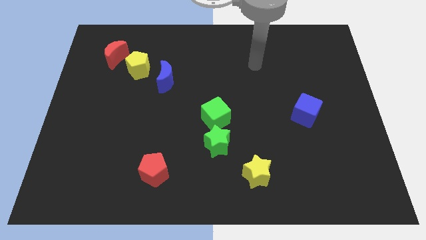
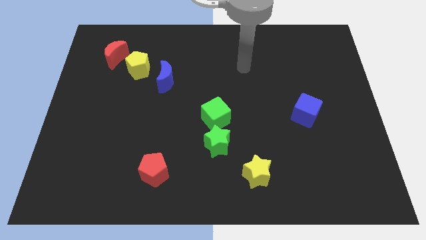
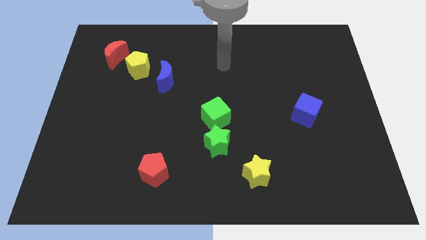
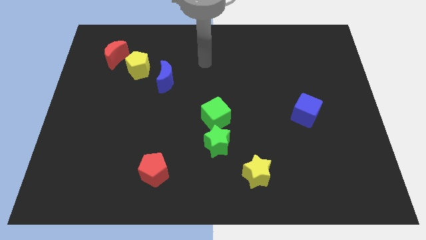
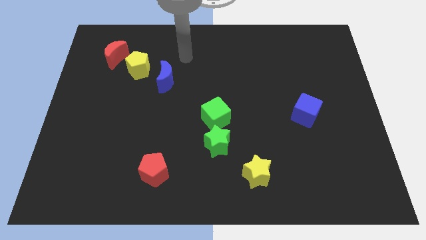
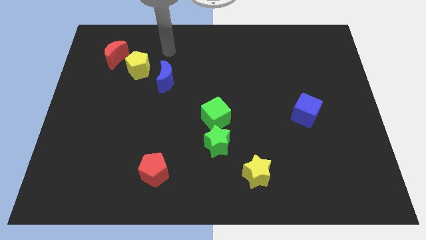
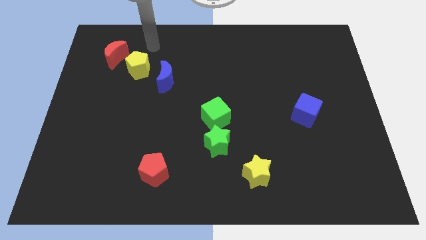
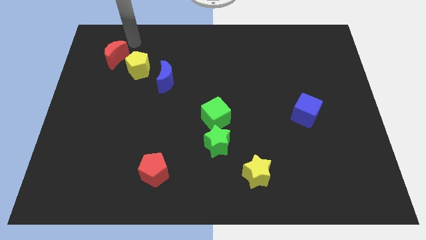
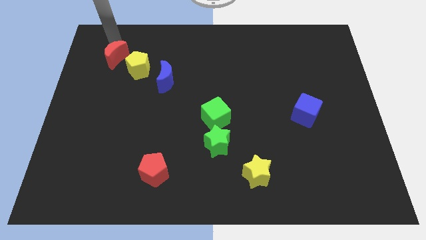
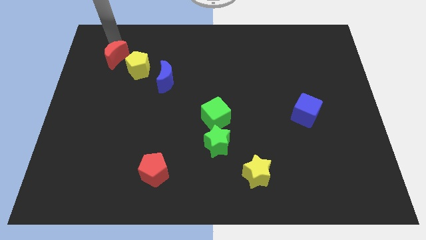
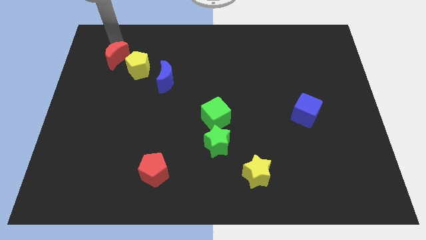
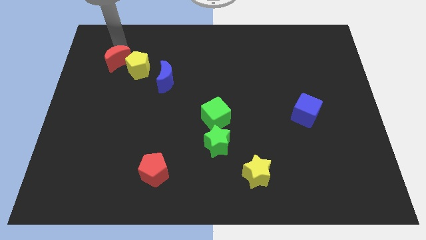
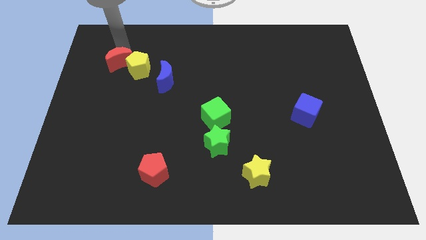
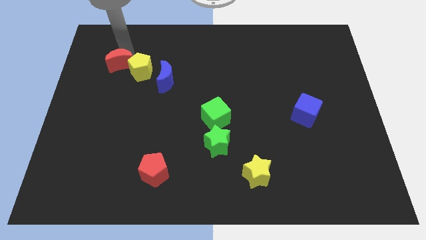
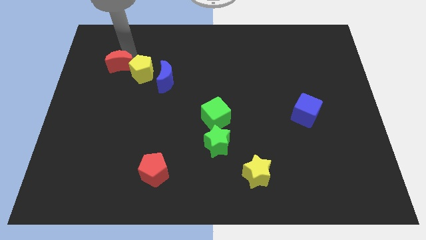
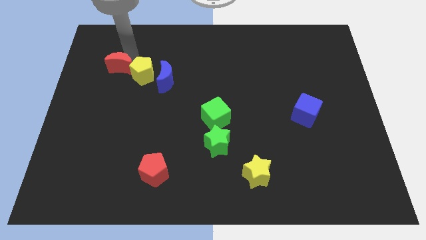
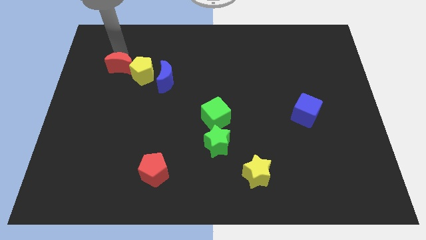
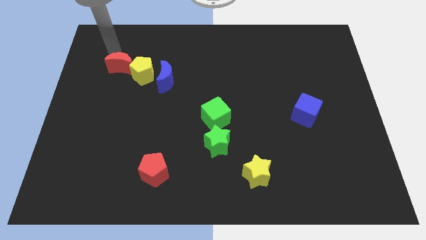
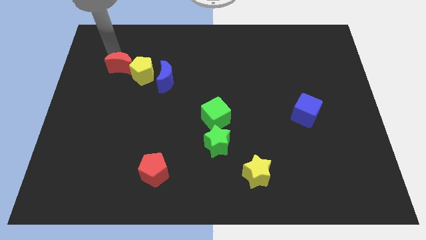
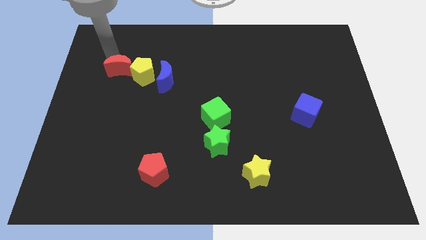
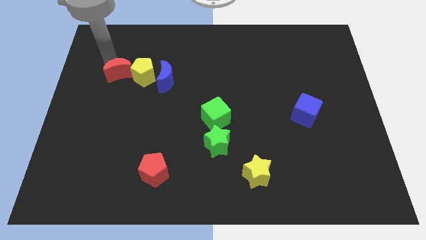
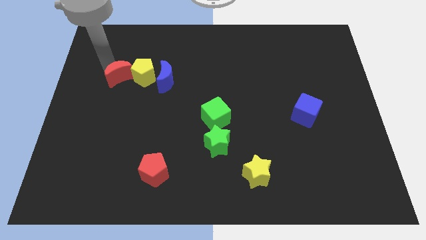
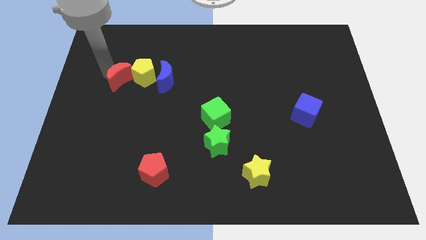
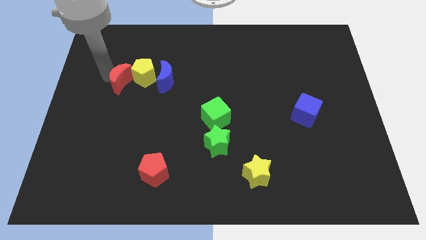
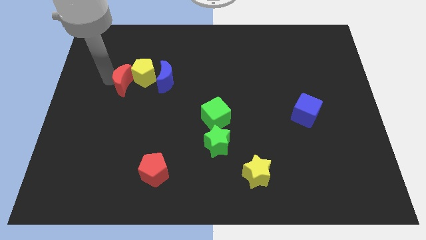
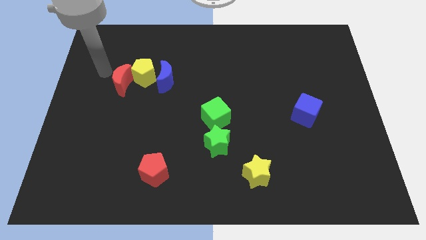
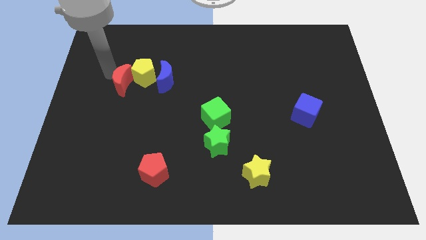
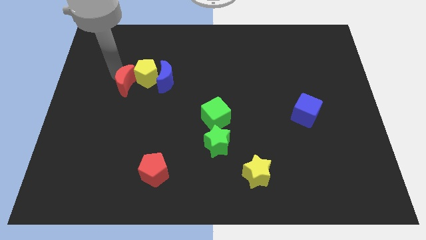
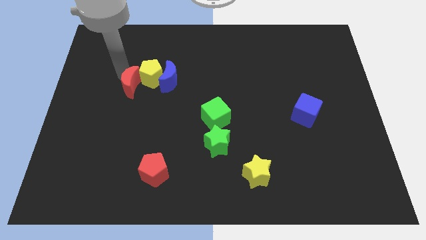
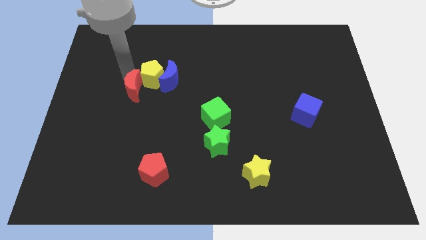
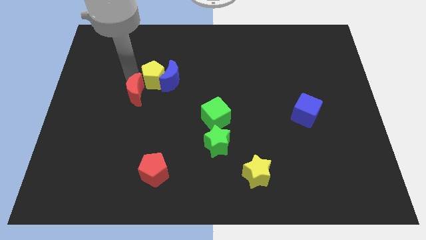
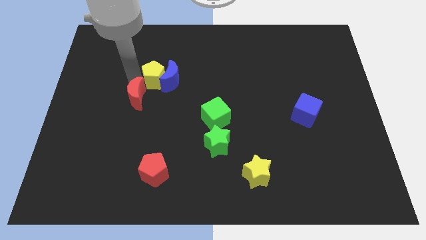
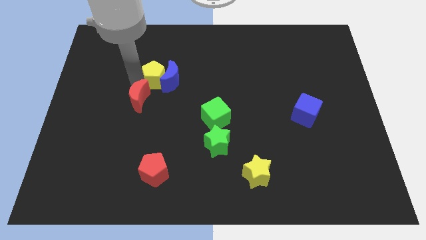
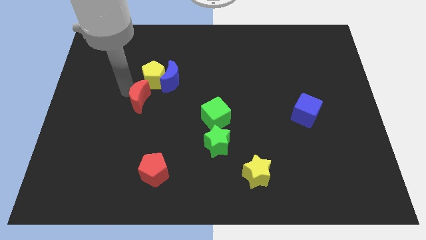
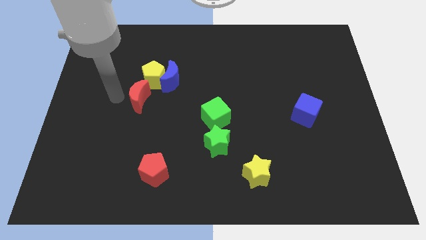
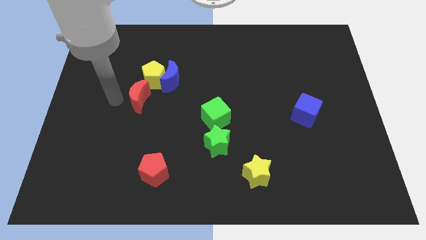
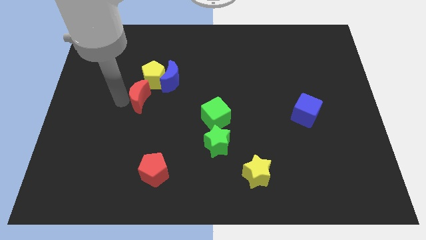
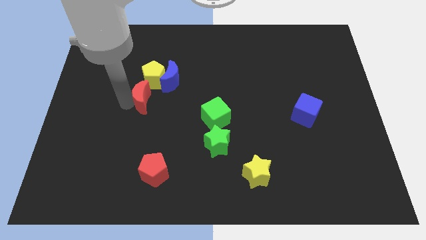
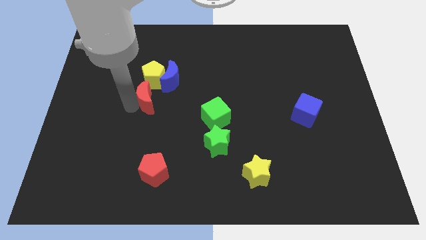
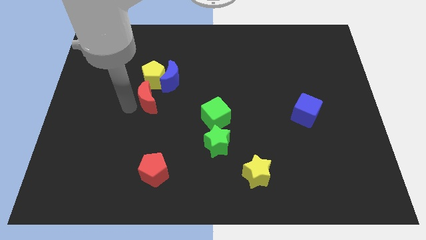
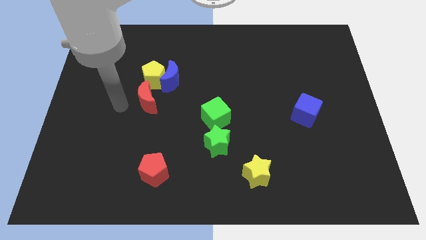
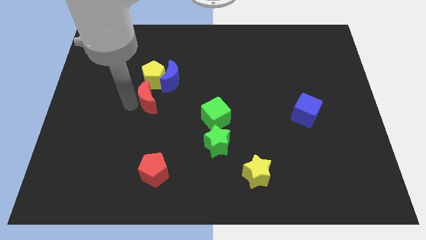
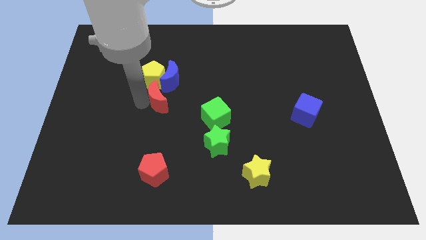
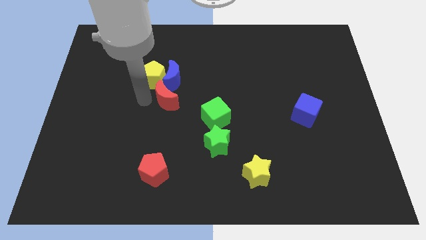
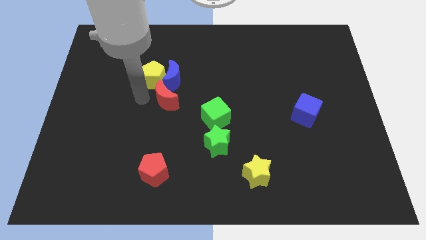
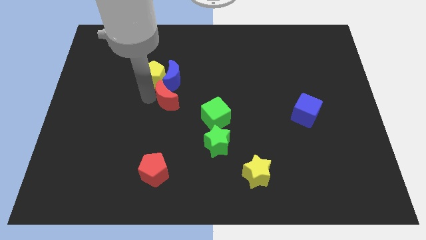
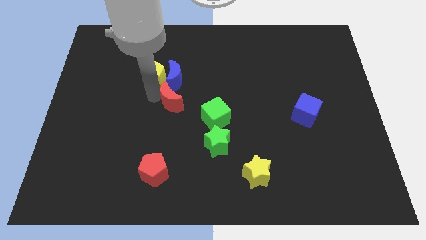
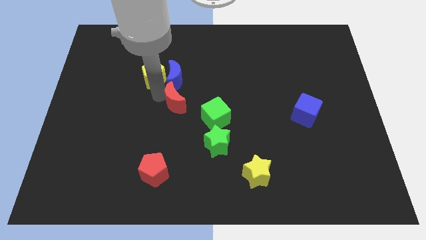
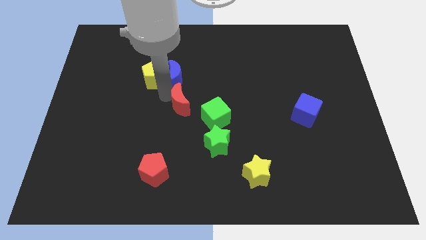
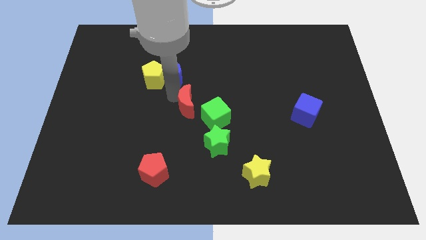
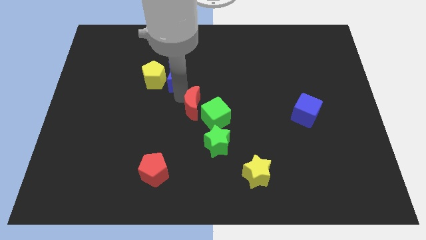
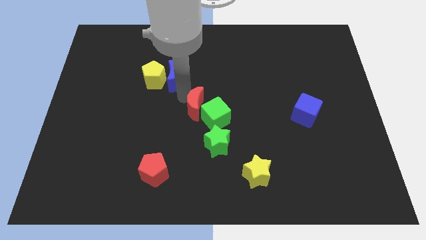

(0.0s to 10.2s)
move the red moon to the green cube

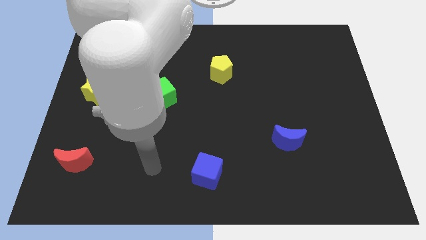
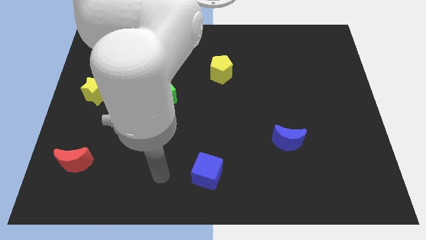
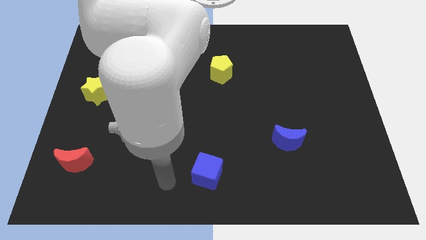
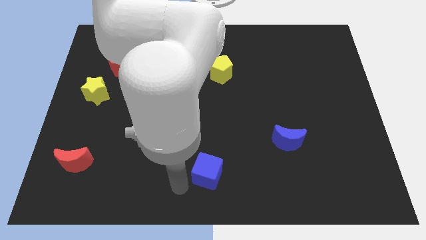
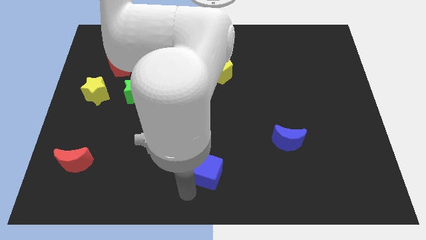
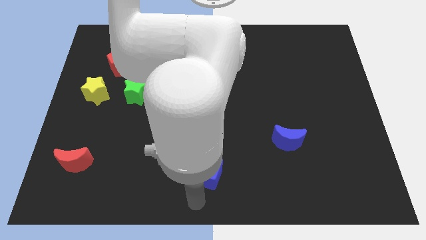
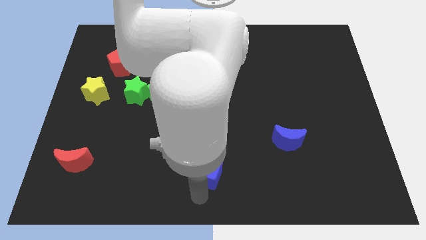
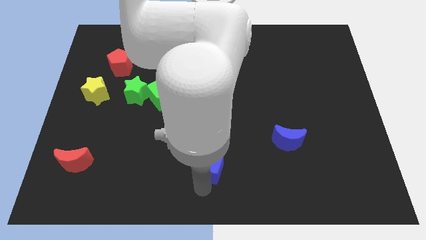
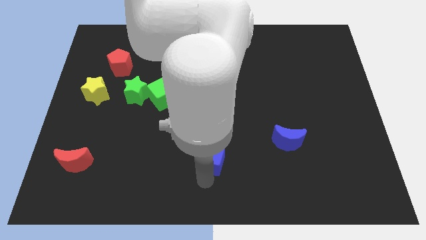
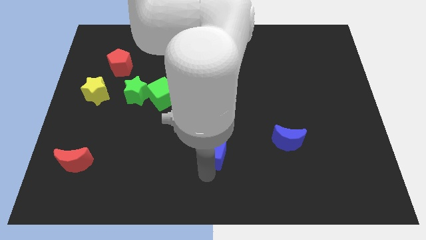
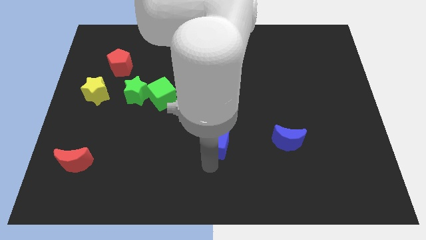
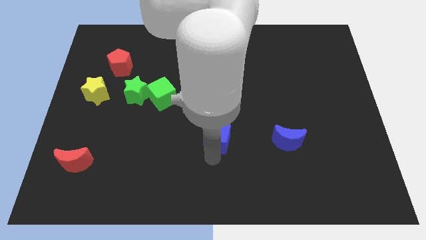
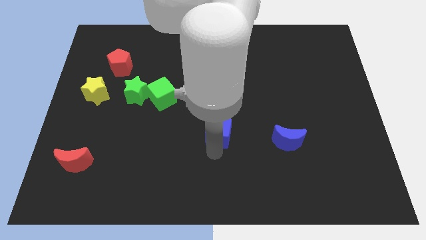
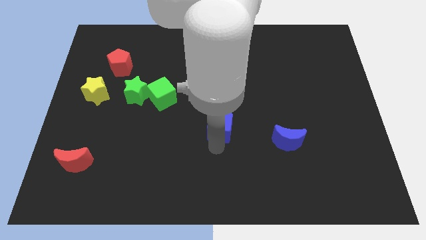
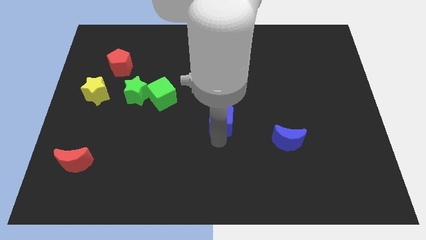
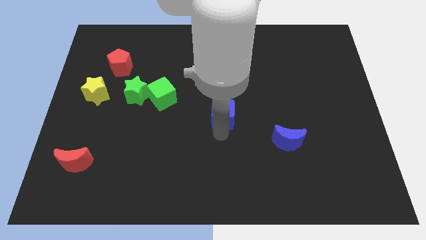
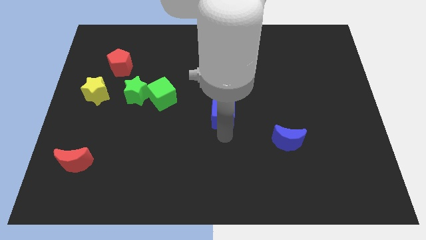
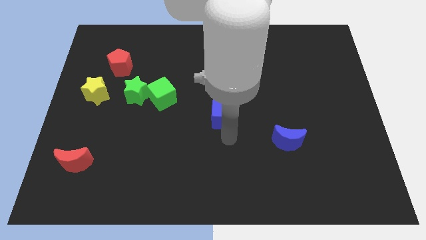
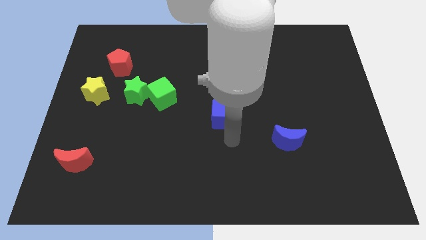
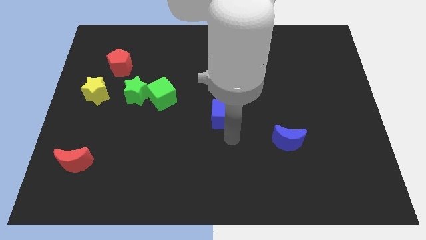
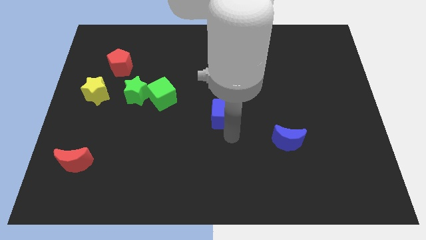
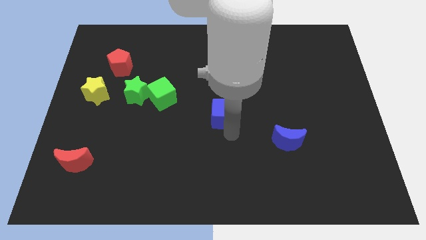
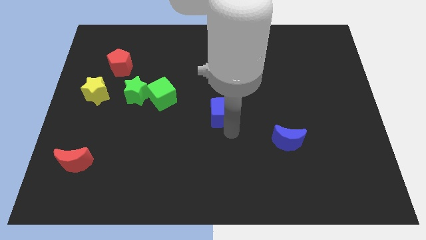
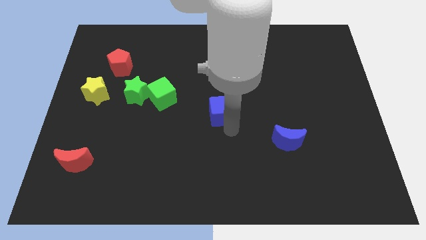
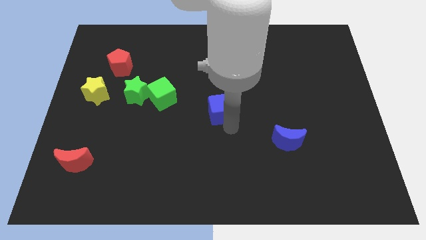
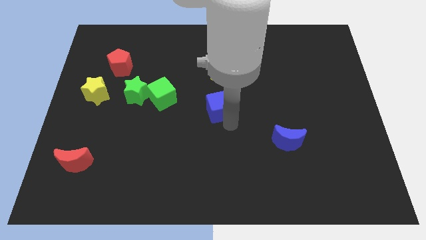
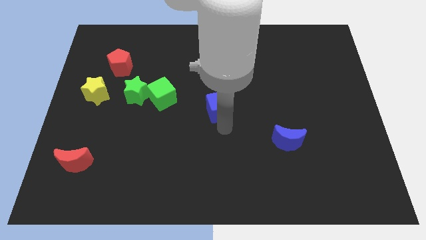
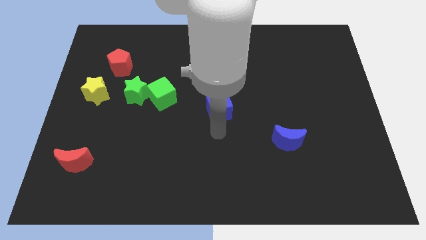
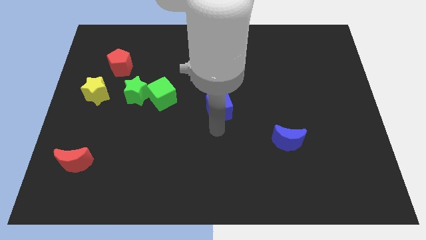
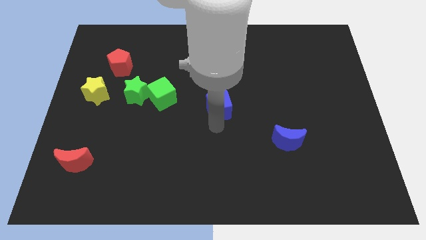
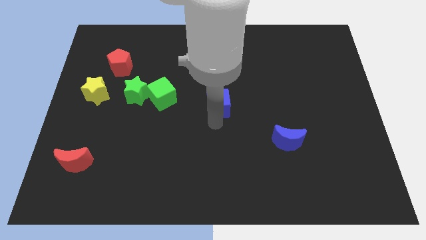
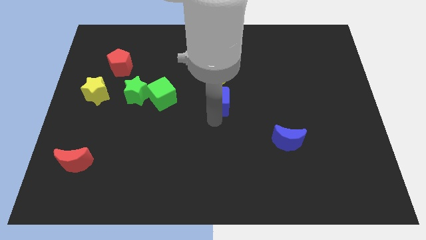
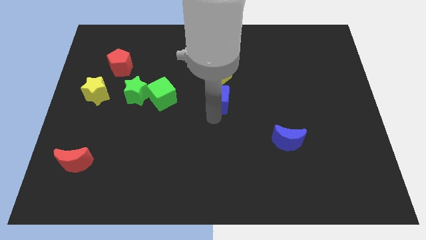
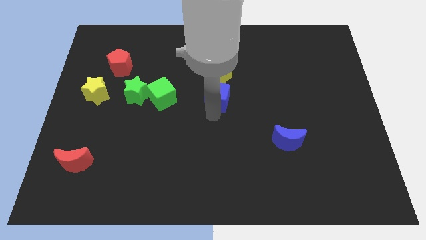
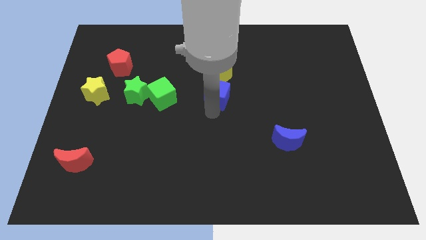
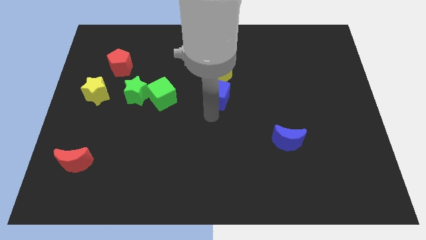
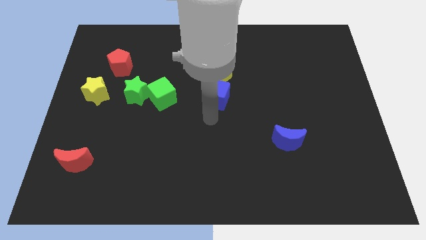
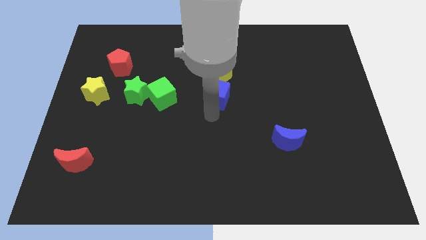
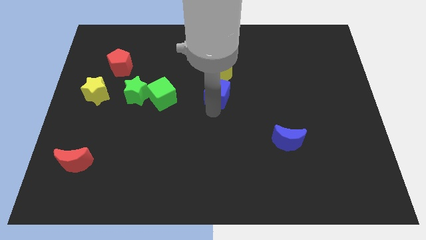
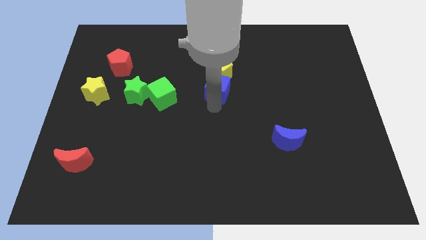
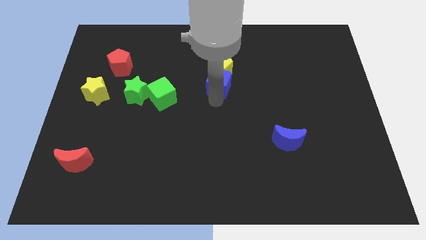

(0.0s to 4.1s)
move the blue cube towards the yellow pentagon
